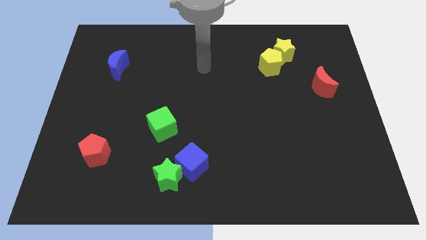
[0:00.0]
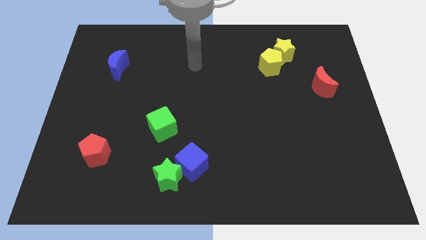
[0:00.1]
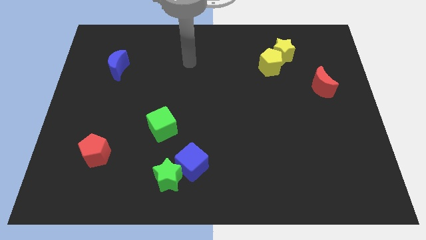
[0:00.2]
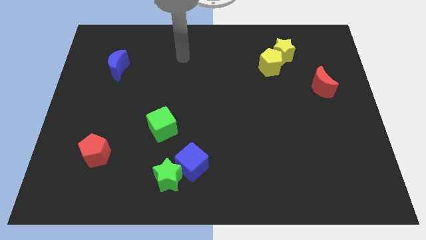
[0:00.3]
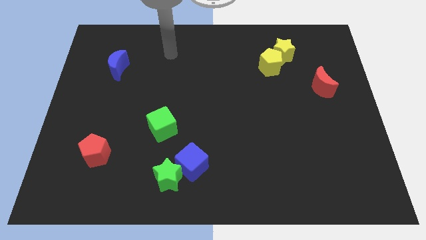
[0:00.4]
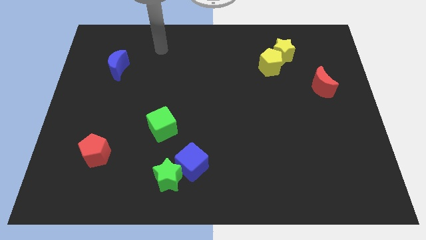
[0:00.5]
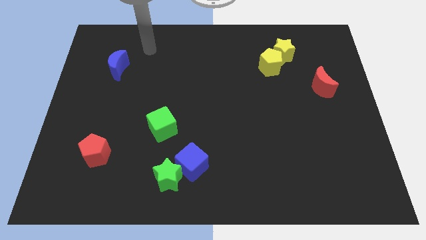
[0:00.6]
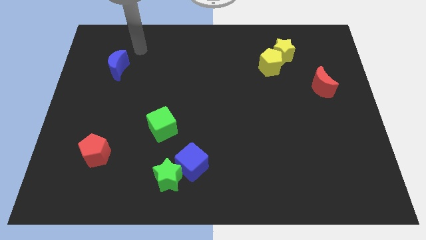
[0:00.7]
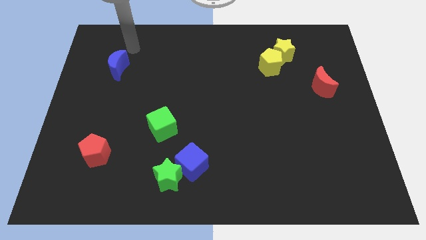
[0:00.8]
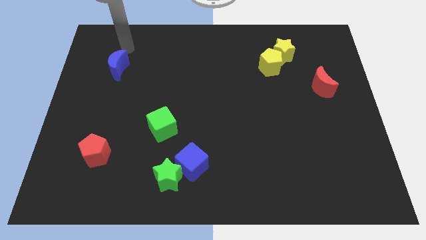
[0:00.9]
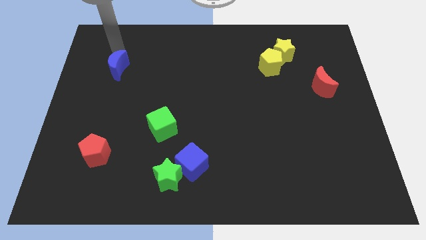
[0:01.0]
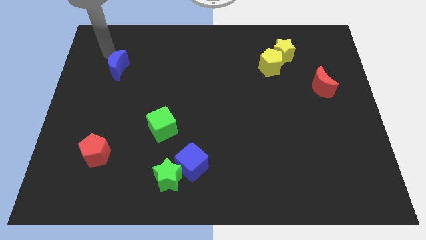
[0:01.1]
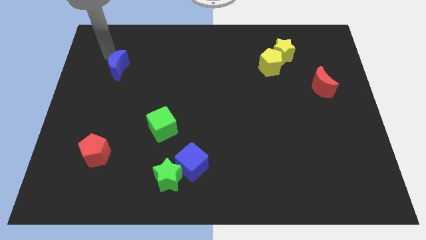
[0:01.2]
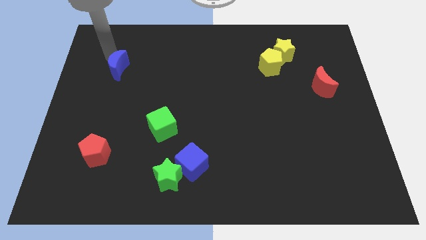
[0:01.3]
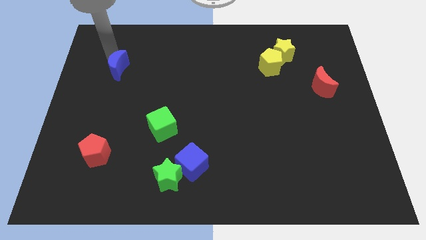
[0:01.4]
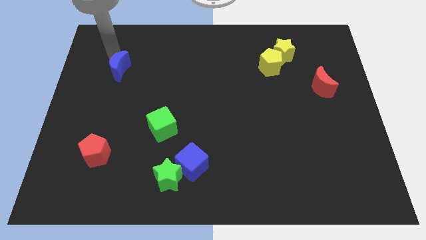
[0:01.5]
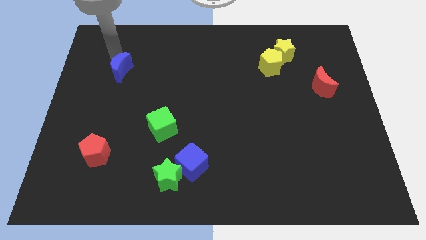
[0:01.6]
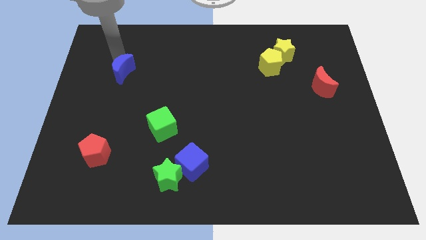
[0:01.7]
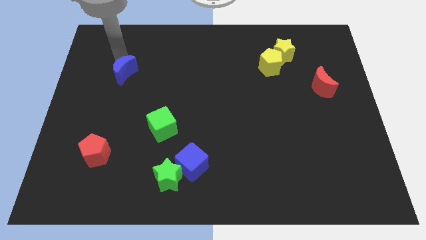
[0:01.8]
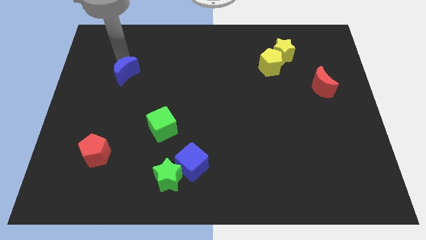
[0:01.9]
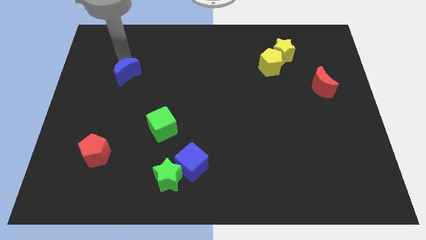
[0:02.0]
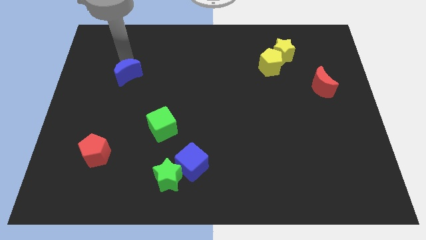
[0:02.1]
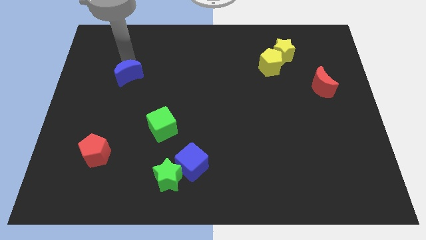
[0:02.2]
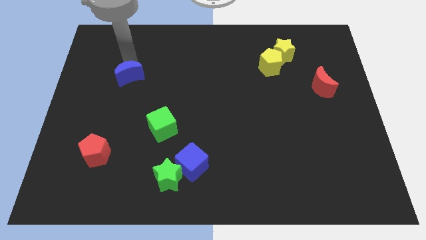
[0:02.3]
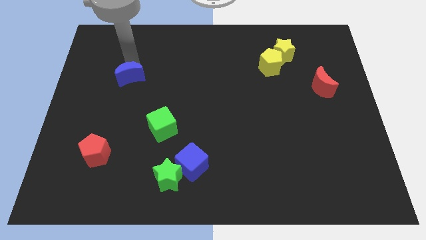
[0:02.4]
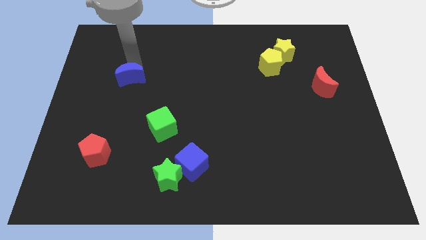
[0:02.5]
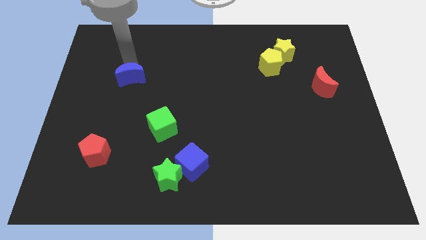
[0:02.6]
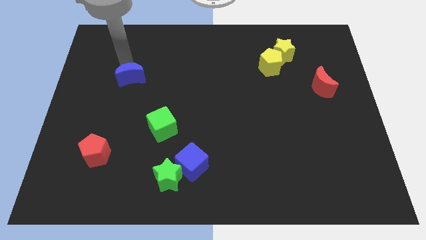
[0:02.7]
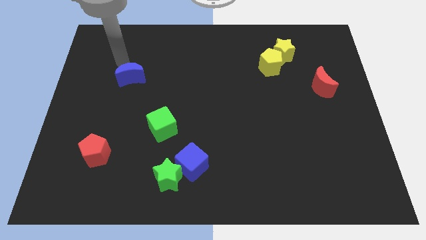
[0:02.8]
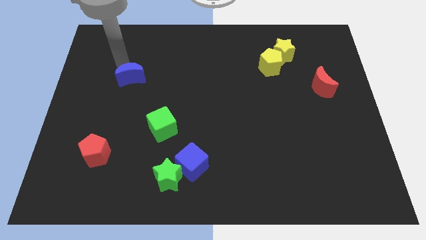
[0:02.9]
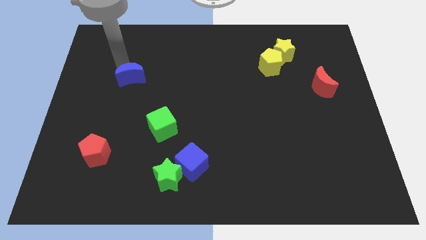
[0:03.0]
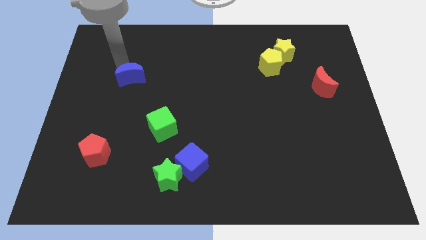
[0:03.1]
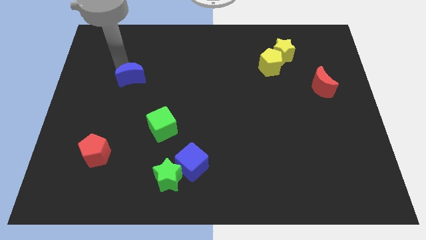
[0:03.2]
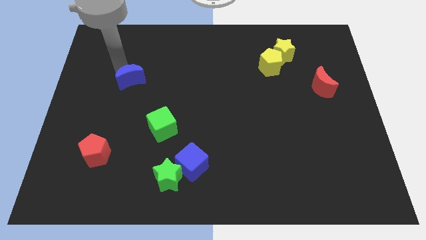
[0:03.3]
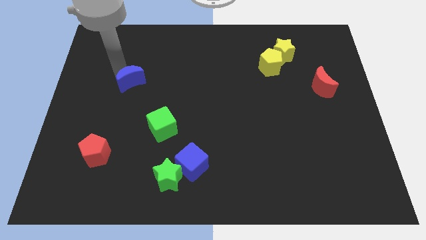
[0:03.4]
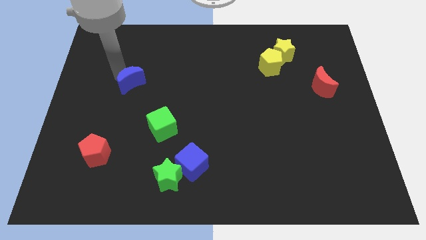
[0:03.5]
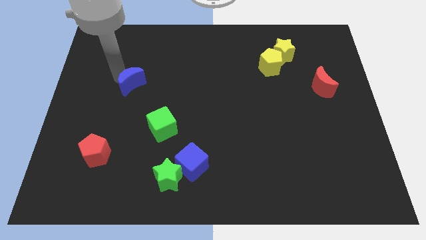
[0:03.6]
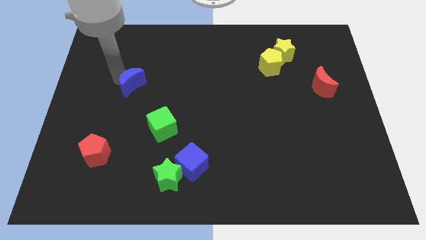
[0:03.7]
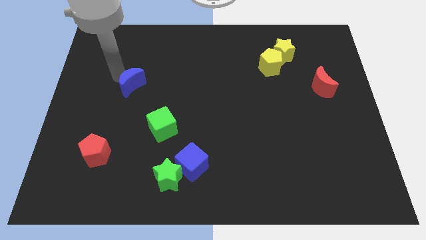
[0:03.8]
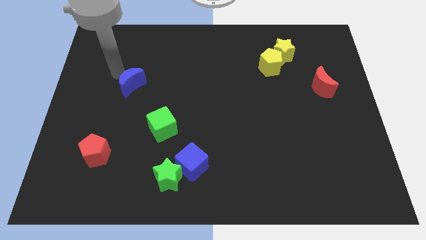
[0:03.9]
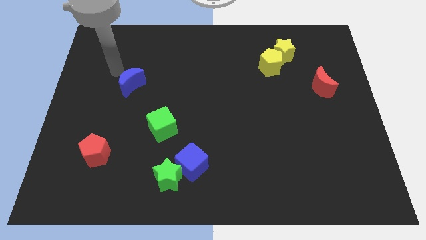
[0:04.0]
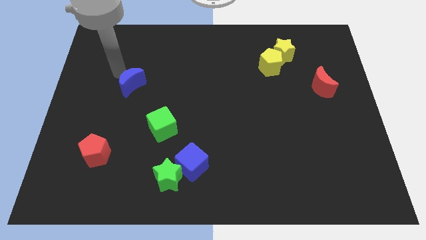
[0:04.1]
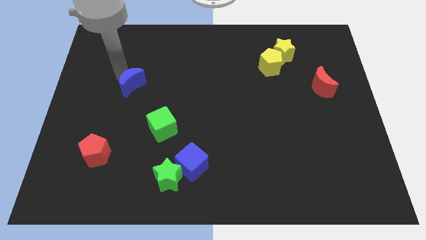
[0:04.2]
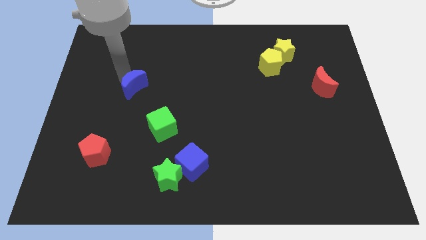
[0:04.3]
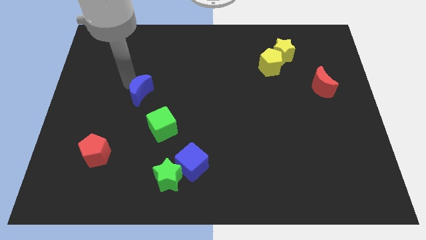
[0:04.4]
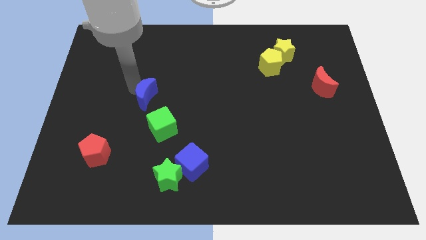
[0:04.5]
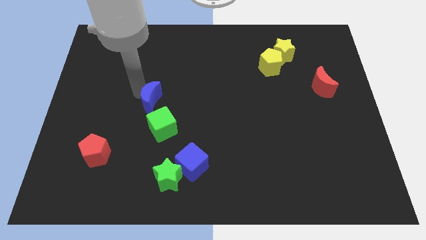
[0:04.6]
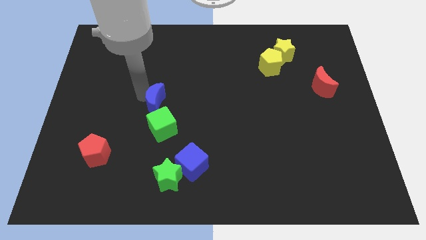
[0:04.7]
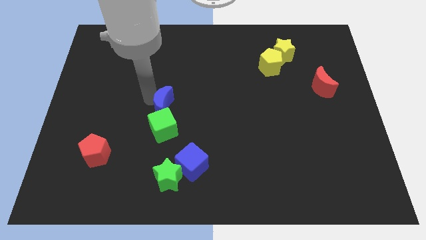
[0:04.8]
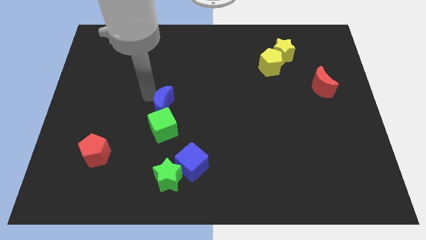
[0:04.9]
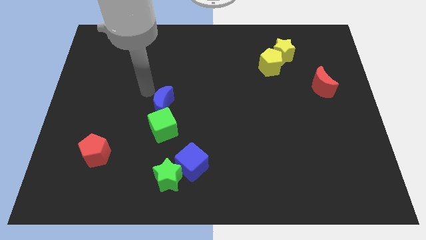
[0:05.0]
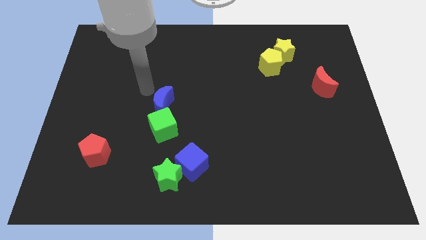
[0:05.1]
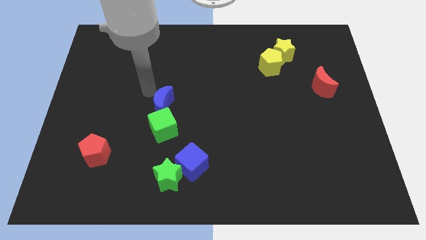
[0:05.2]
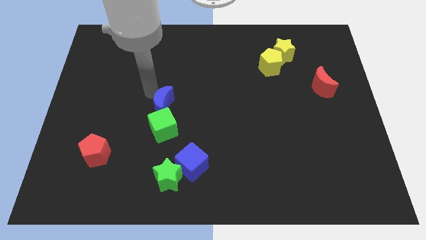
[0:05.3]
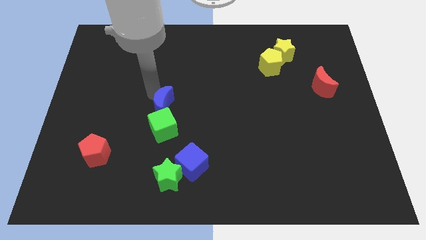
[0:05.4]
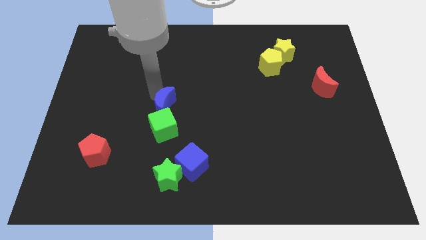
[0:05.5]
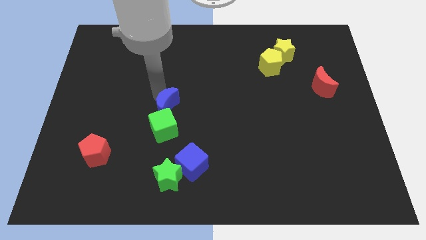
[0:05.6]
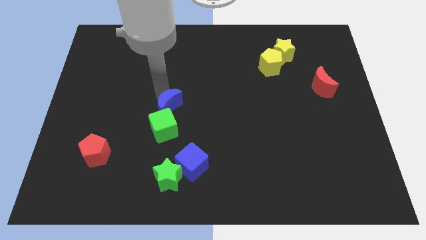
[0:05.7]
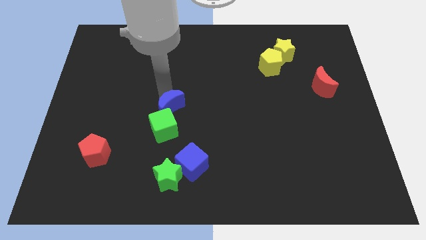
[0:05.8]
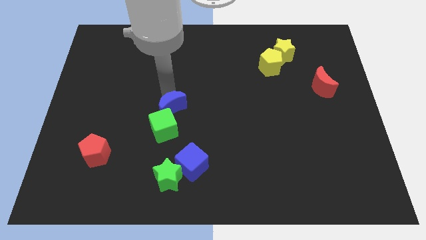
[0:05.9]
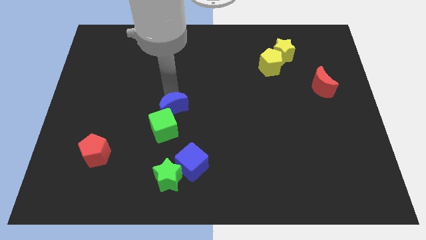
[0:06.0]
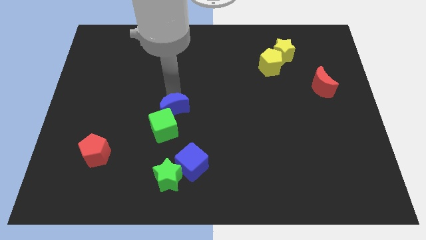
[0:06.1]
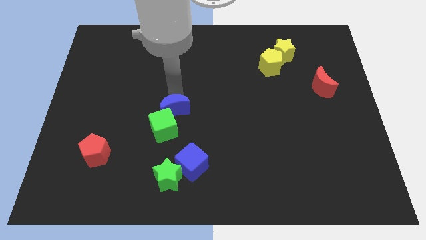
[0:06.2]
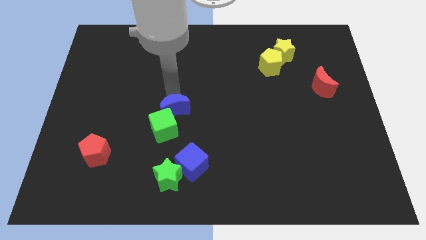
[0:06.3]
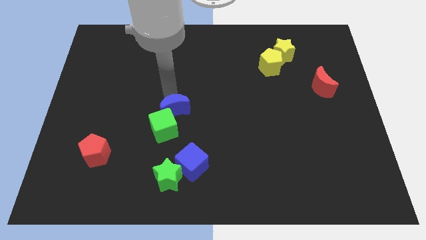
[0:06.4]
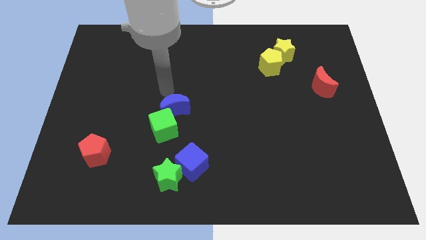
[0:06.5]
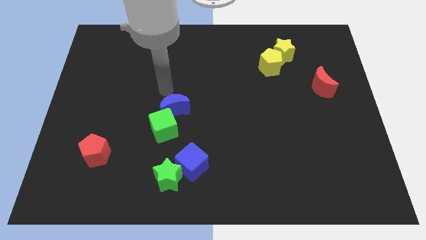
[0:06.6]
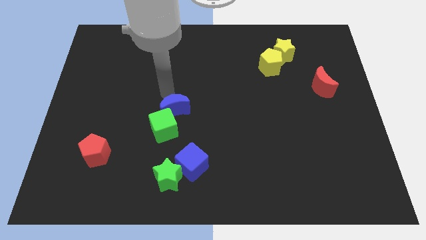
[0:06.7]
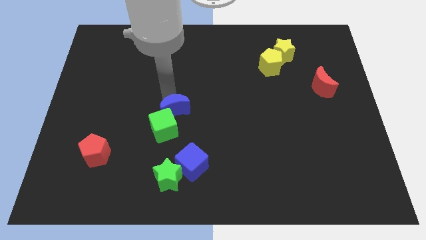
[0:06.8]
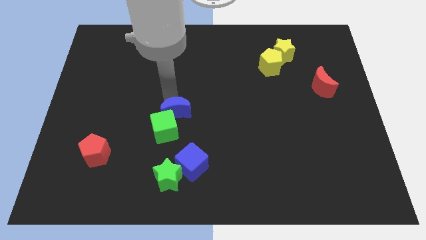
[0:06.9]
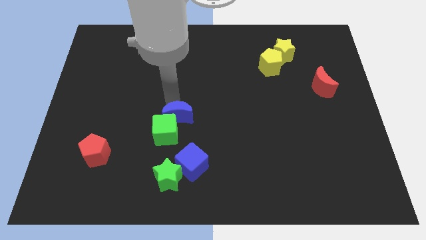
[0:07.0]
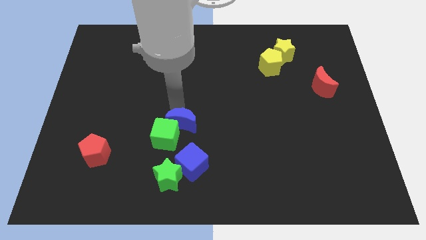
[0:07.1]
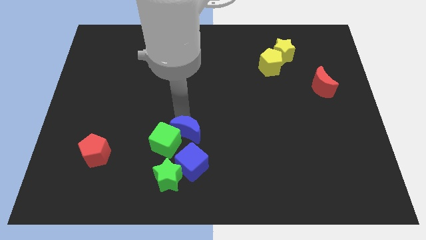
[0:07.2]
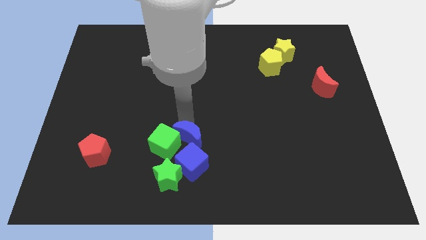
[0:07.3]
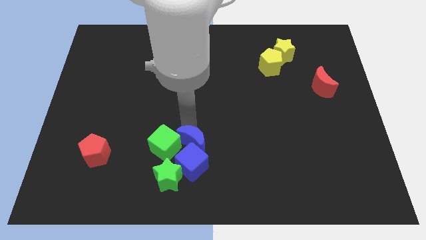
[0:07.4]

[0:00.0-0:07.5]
move the blue moon to the blue cube

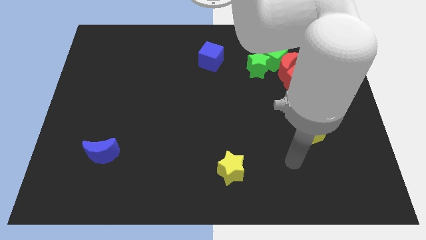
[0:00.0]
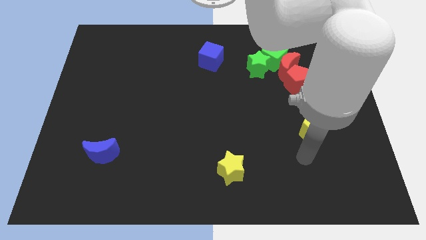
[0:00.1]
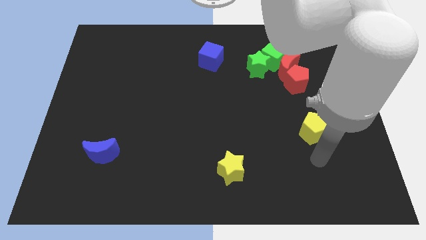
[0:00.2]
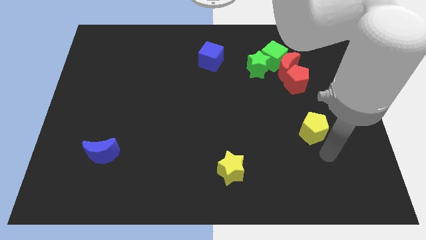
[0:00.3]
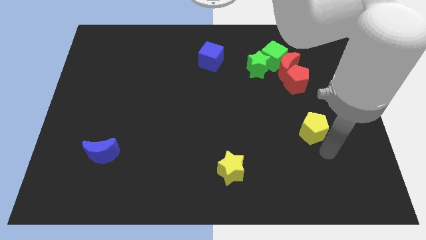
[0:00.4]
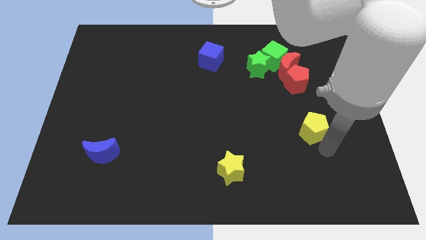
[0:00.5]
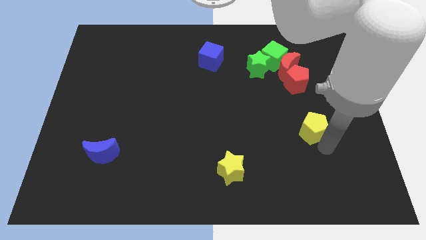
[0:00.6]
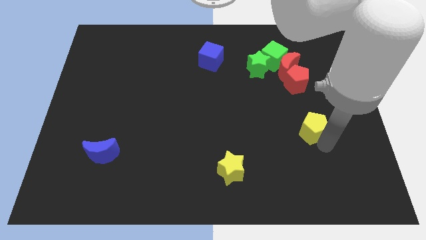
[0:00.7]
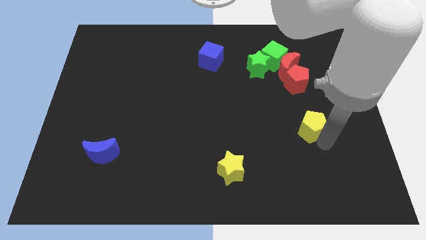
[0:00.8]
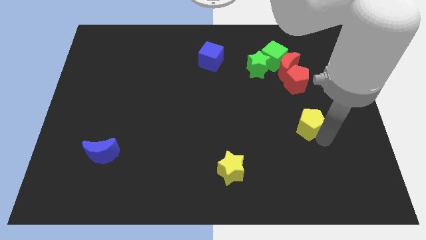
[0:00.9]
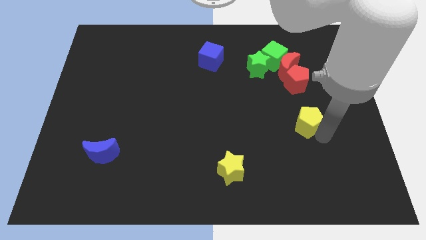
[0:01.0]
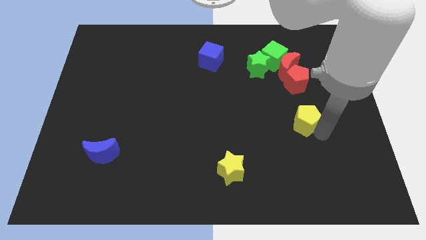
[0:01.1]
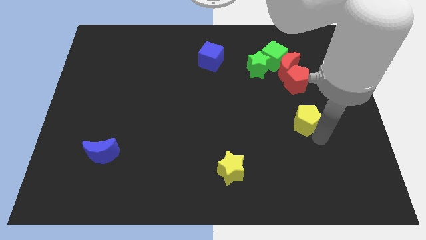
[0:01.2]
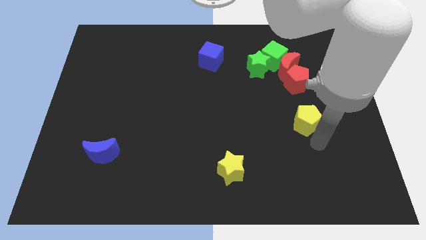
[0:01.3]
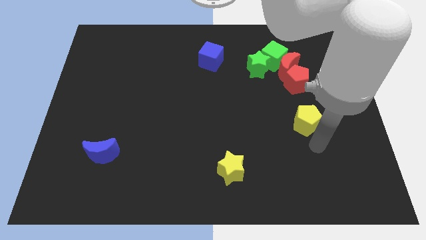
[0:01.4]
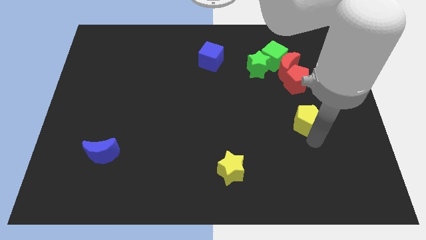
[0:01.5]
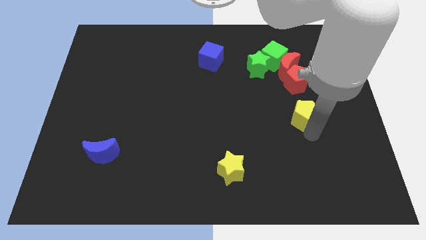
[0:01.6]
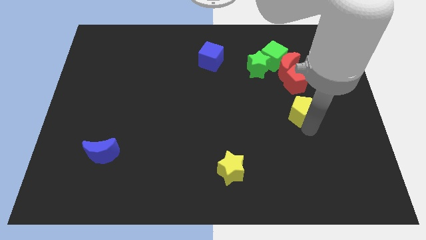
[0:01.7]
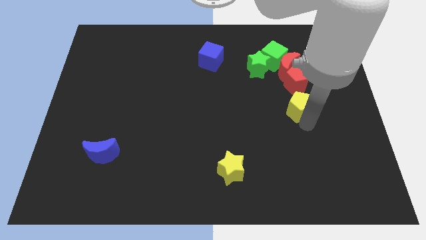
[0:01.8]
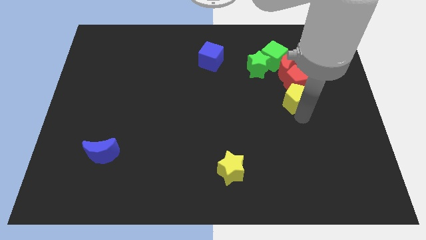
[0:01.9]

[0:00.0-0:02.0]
put the yellow pentagon close to the red pentagon
